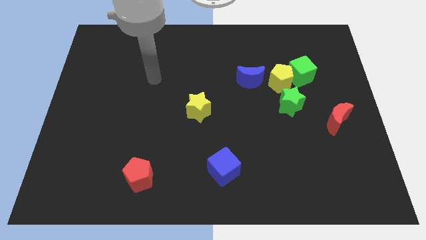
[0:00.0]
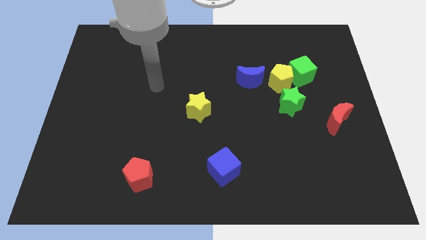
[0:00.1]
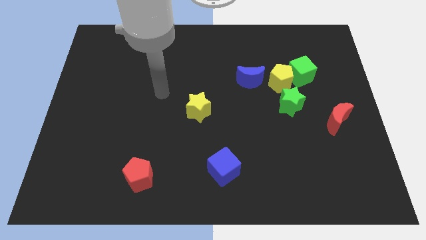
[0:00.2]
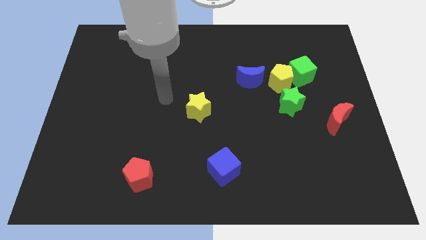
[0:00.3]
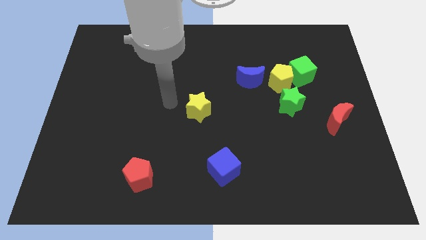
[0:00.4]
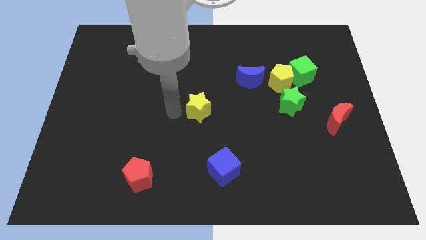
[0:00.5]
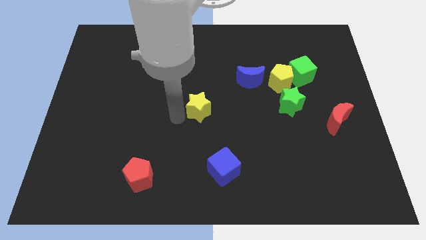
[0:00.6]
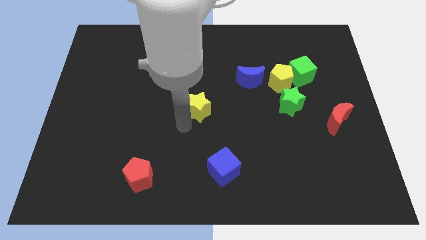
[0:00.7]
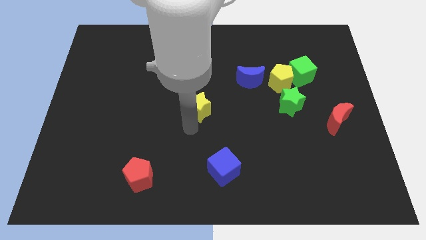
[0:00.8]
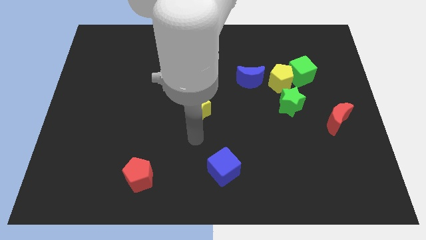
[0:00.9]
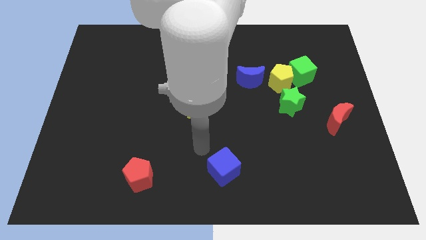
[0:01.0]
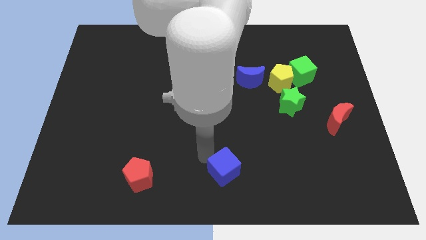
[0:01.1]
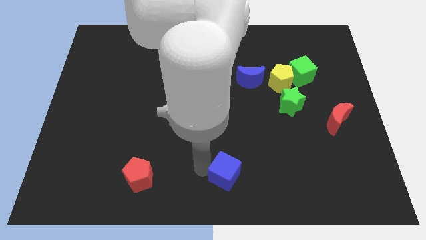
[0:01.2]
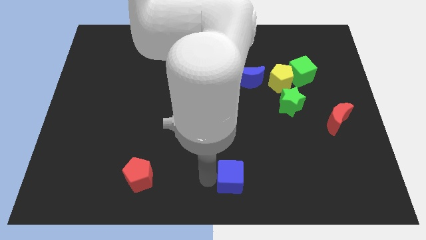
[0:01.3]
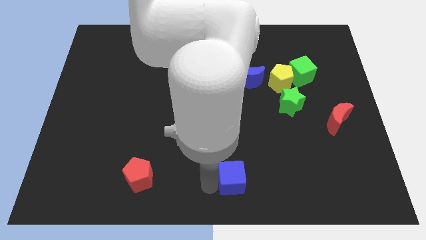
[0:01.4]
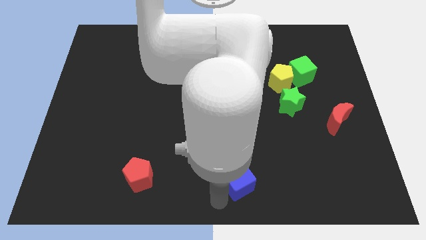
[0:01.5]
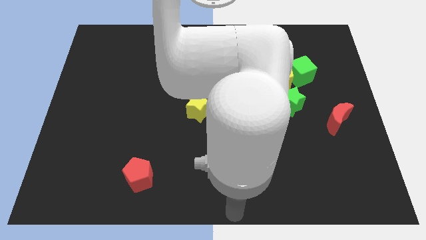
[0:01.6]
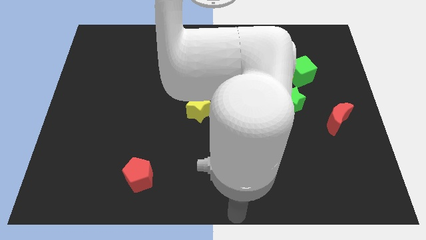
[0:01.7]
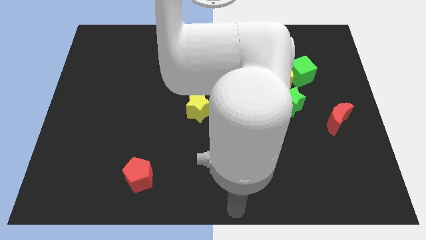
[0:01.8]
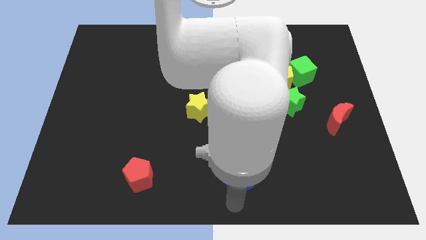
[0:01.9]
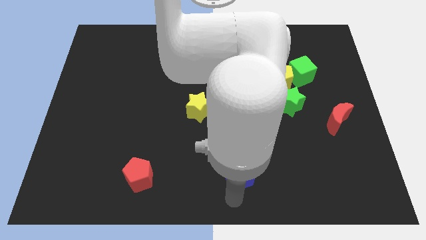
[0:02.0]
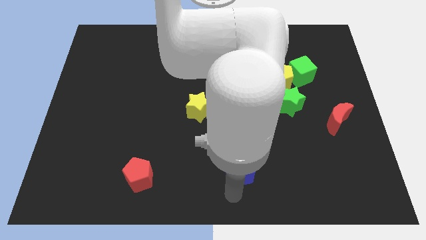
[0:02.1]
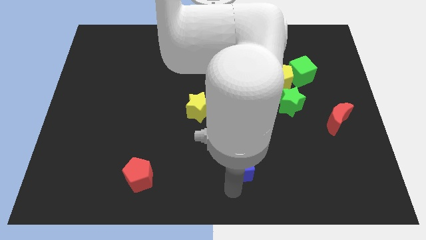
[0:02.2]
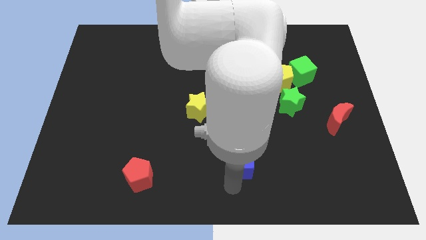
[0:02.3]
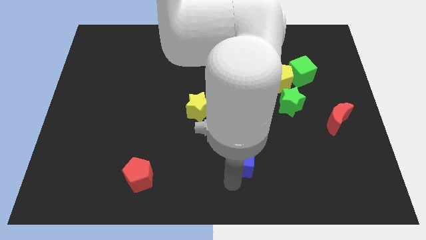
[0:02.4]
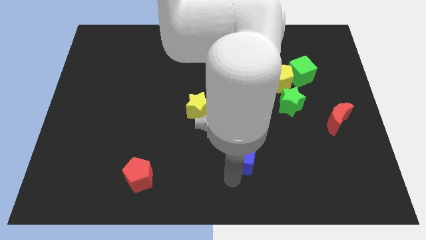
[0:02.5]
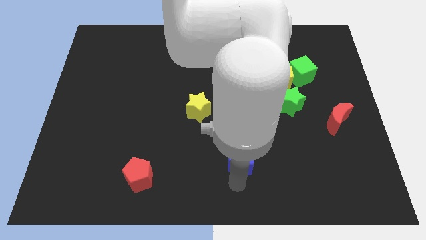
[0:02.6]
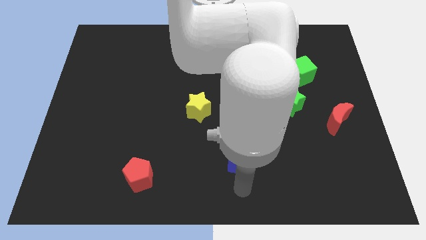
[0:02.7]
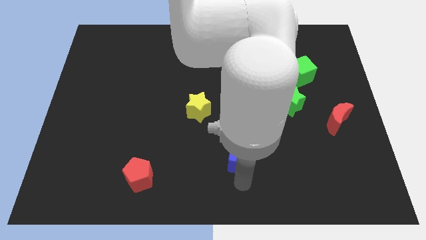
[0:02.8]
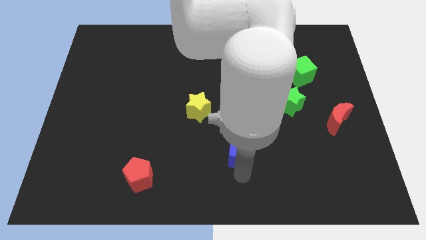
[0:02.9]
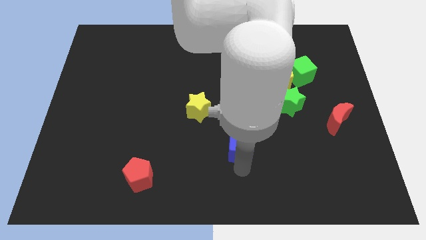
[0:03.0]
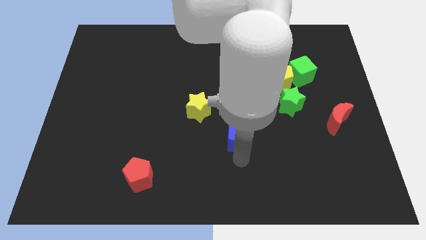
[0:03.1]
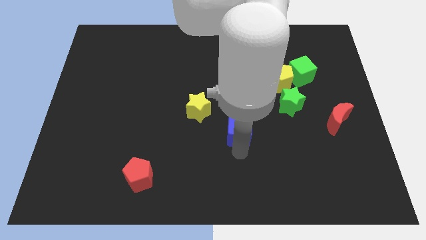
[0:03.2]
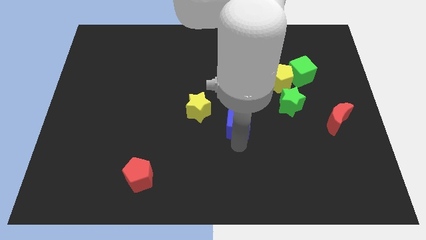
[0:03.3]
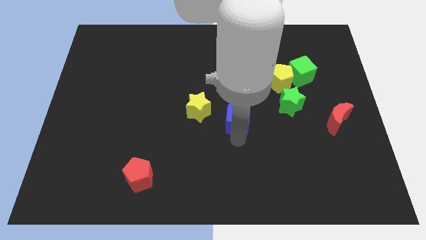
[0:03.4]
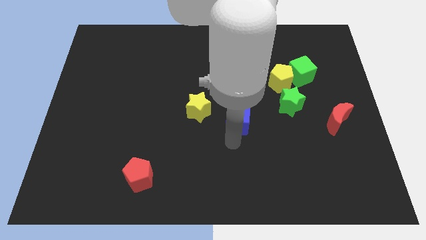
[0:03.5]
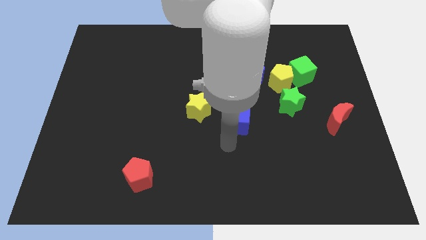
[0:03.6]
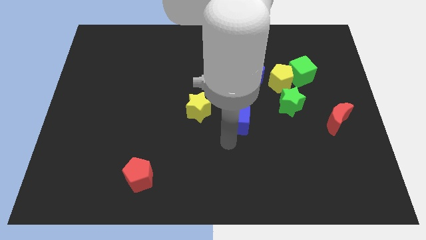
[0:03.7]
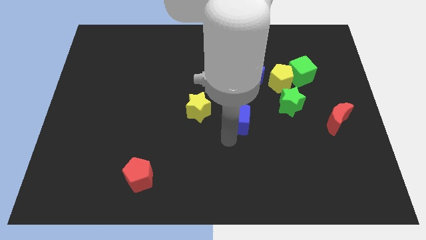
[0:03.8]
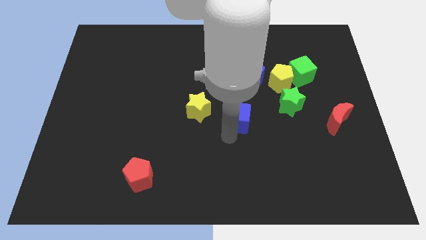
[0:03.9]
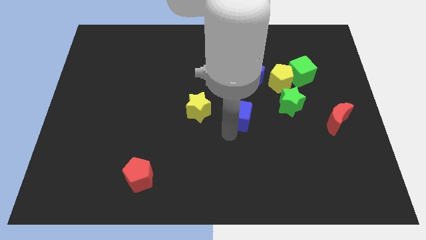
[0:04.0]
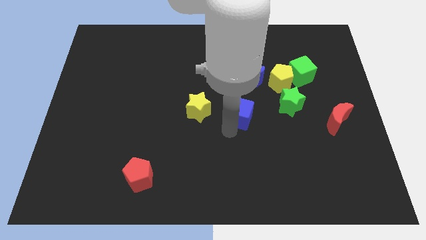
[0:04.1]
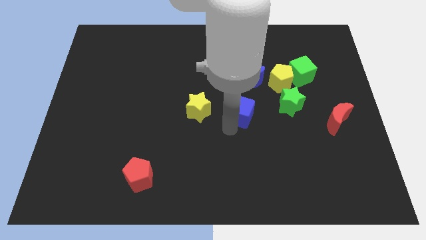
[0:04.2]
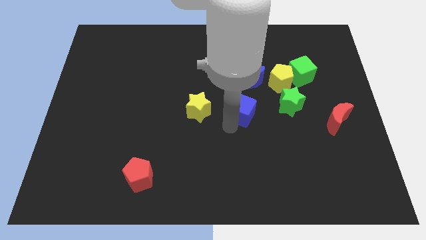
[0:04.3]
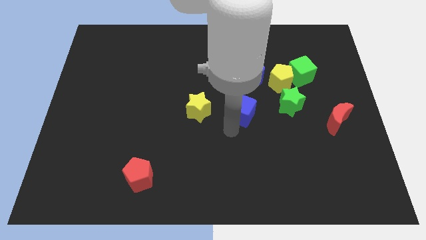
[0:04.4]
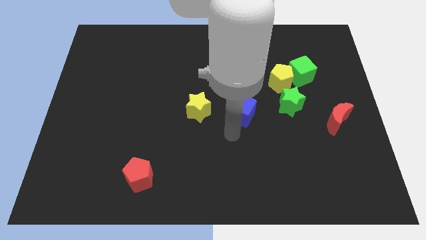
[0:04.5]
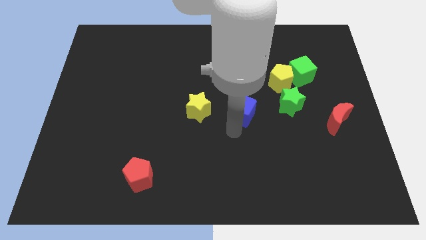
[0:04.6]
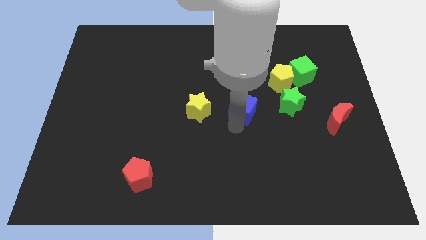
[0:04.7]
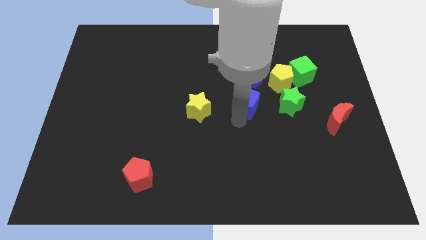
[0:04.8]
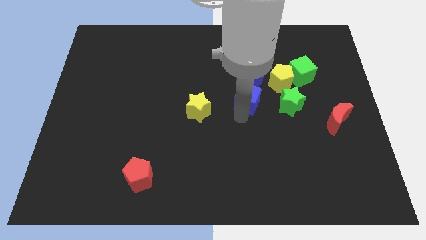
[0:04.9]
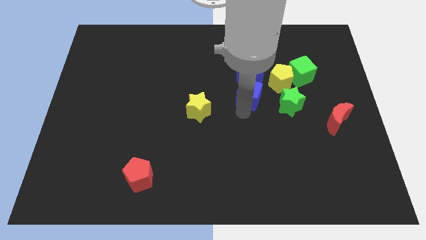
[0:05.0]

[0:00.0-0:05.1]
move the blue cube next to the blue moon

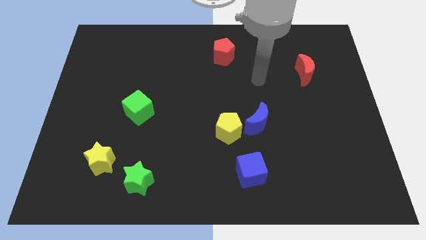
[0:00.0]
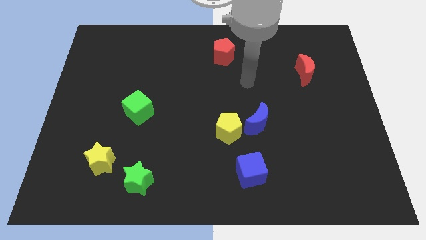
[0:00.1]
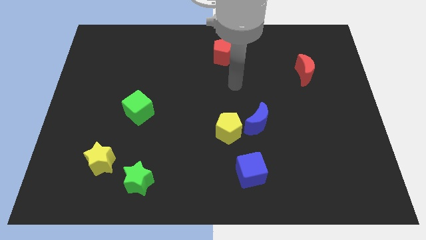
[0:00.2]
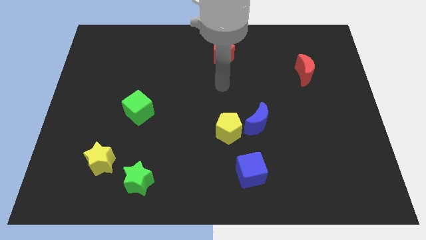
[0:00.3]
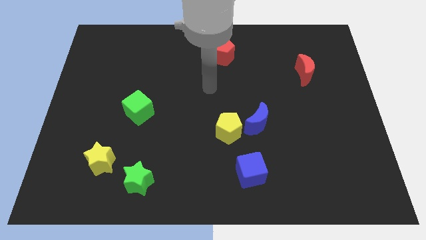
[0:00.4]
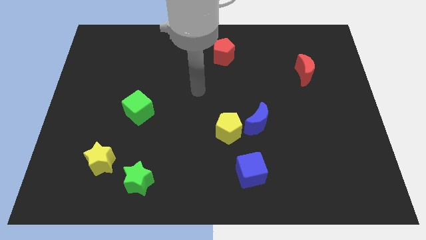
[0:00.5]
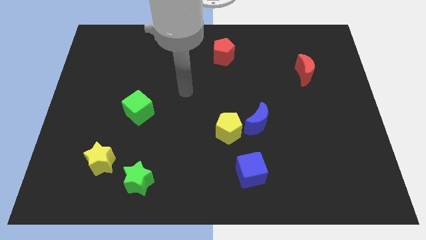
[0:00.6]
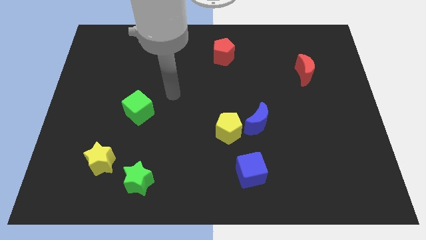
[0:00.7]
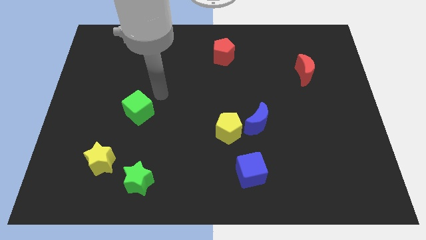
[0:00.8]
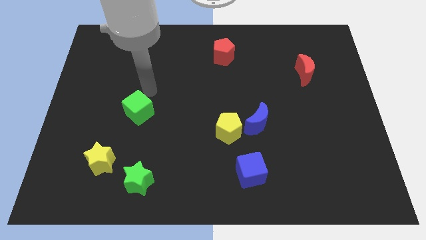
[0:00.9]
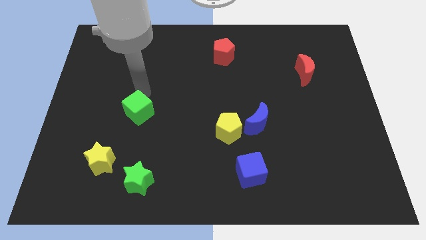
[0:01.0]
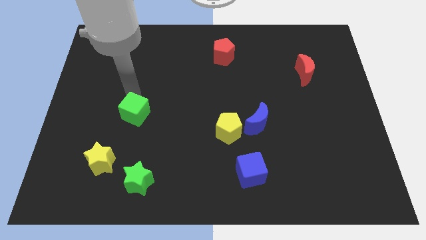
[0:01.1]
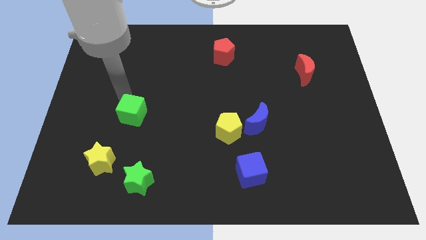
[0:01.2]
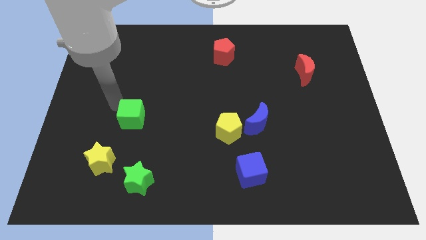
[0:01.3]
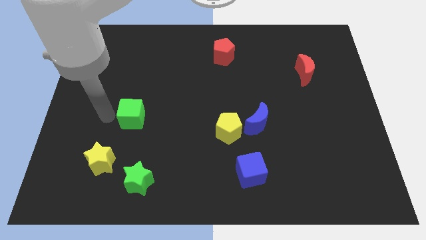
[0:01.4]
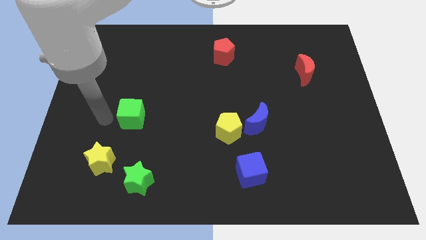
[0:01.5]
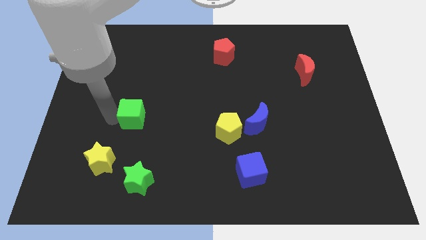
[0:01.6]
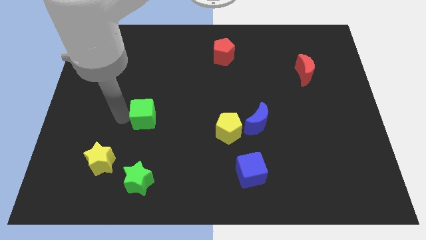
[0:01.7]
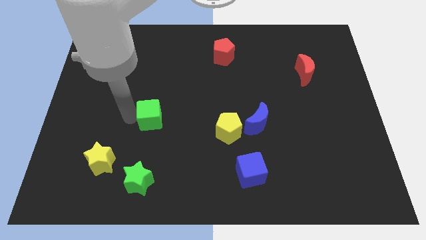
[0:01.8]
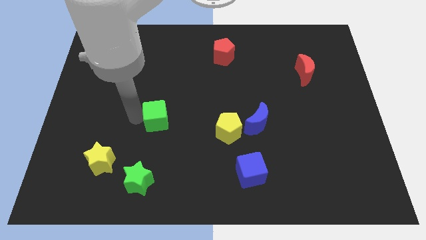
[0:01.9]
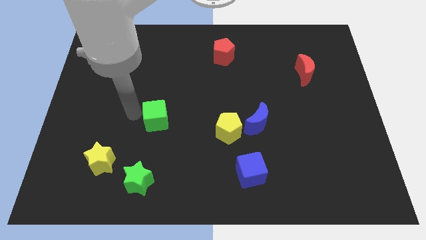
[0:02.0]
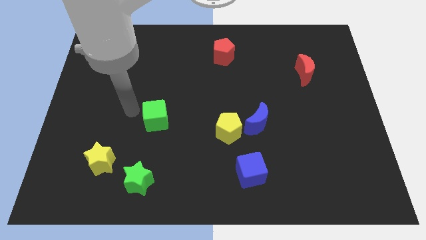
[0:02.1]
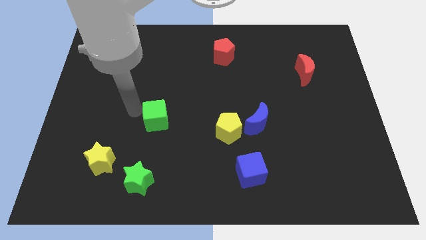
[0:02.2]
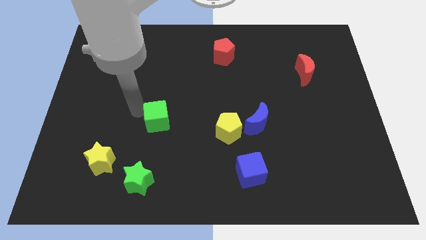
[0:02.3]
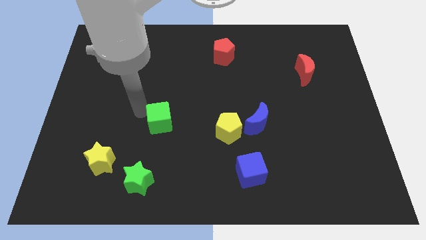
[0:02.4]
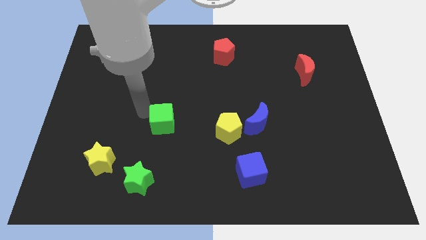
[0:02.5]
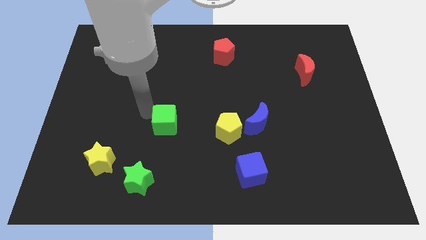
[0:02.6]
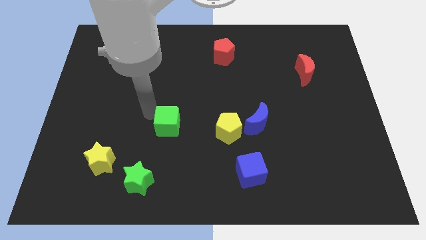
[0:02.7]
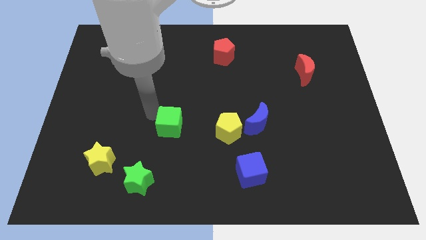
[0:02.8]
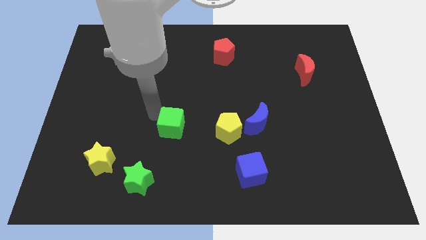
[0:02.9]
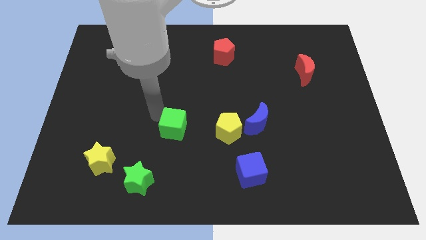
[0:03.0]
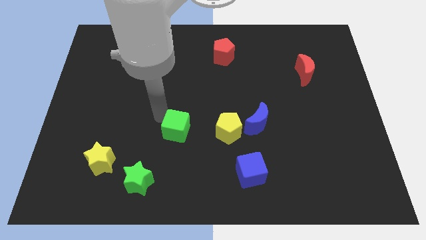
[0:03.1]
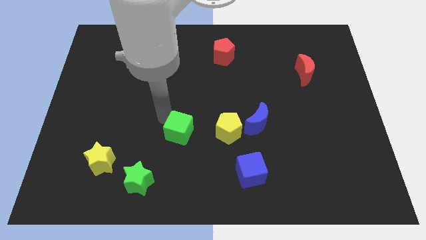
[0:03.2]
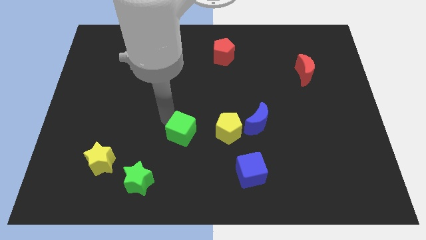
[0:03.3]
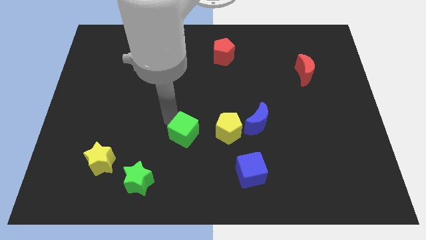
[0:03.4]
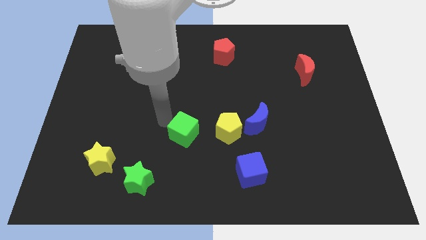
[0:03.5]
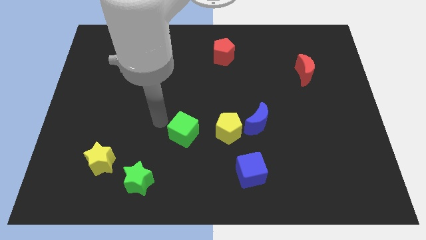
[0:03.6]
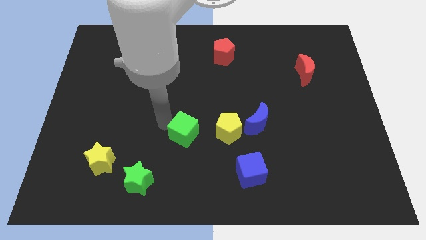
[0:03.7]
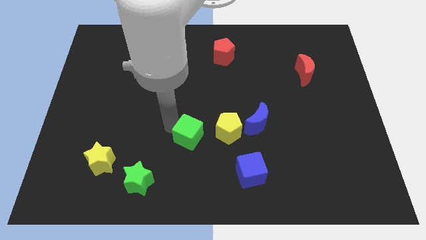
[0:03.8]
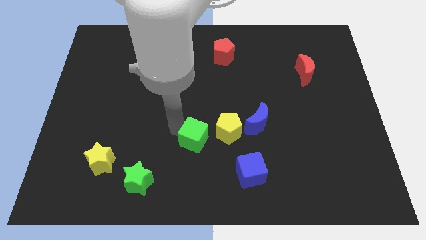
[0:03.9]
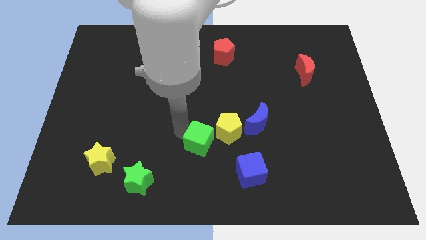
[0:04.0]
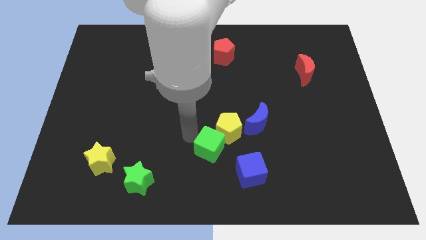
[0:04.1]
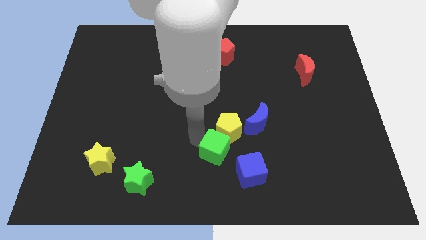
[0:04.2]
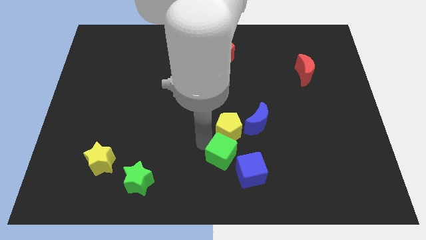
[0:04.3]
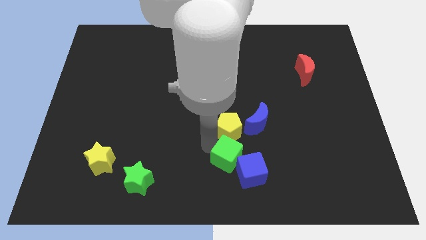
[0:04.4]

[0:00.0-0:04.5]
push the green cube to the blue cube
